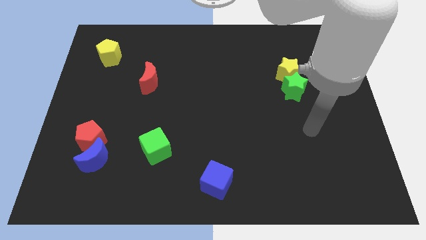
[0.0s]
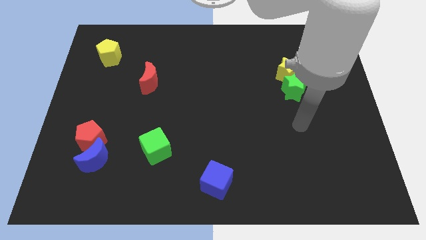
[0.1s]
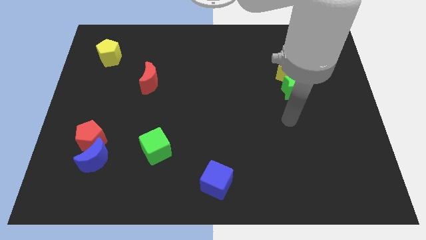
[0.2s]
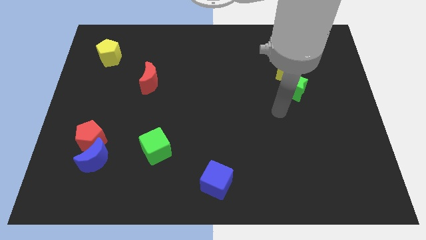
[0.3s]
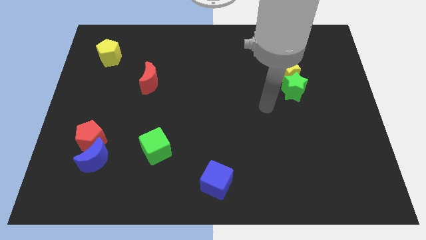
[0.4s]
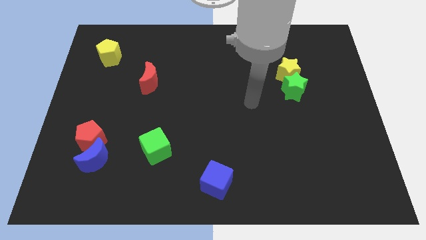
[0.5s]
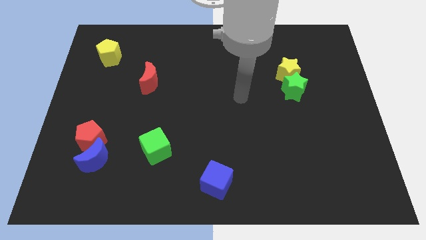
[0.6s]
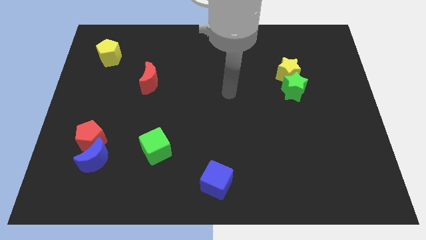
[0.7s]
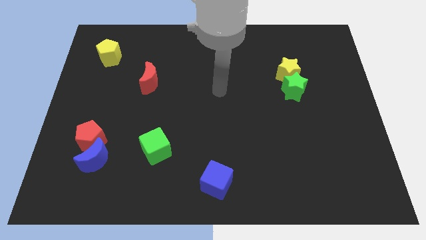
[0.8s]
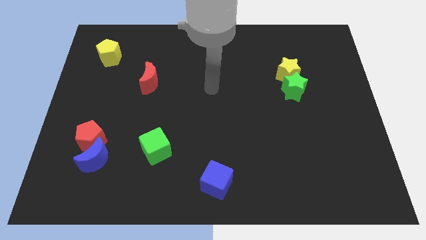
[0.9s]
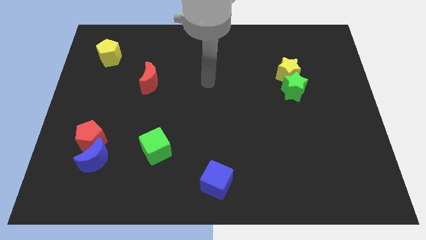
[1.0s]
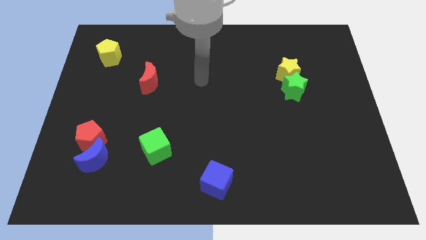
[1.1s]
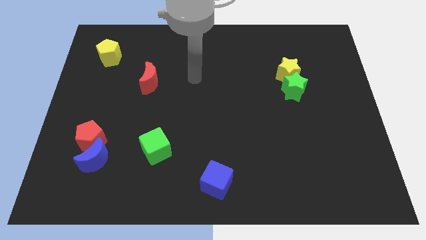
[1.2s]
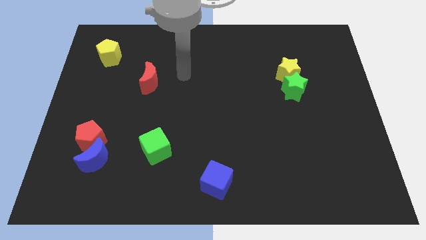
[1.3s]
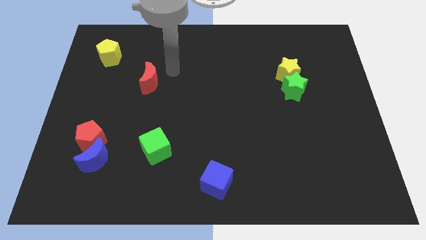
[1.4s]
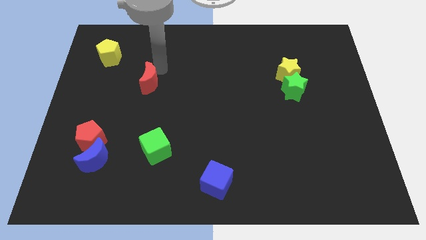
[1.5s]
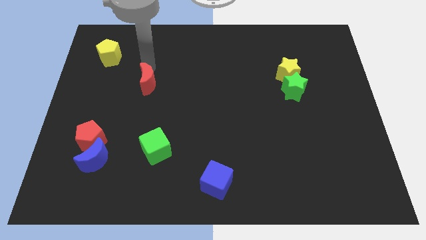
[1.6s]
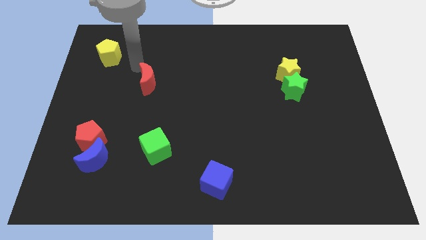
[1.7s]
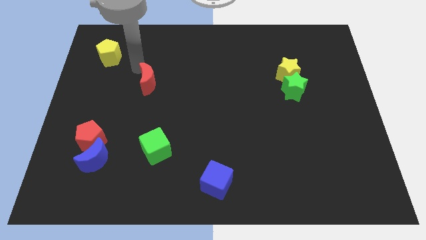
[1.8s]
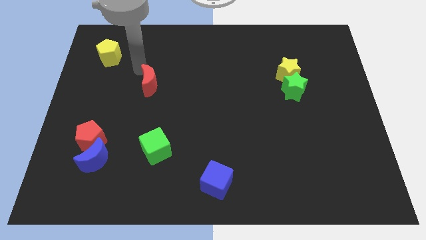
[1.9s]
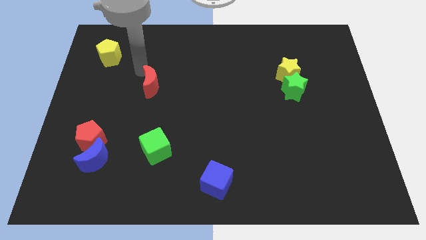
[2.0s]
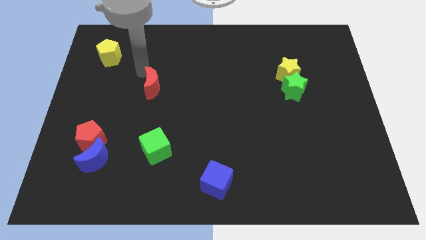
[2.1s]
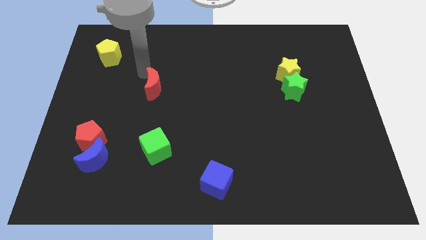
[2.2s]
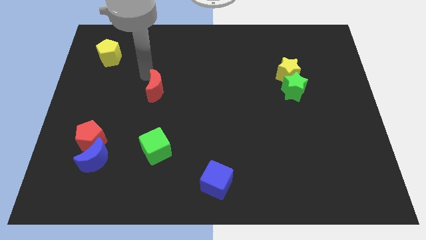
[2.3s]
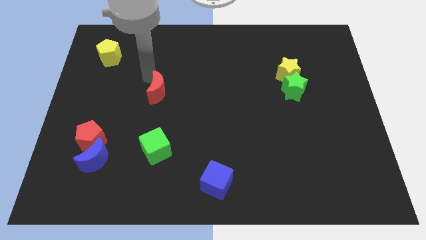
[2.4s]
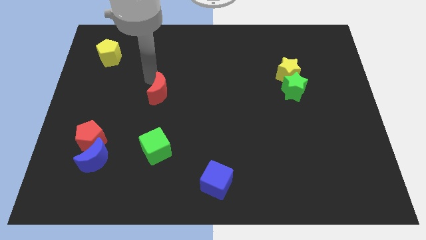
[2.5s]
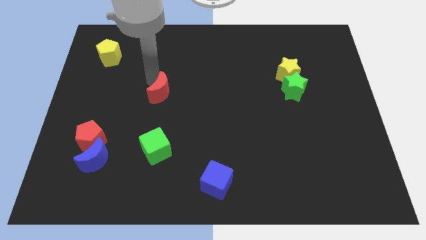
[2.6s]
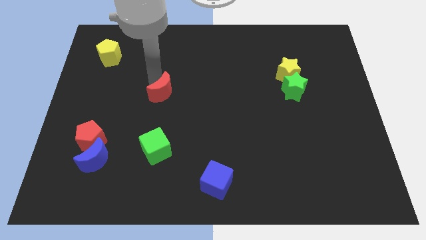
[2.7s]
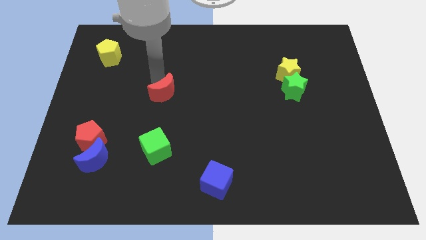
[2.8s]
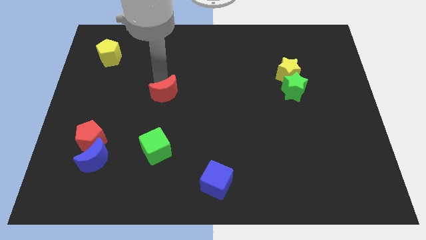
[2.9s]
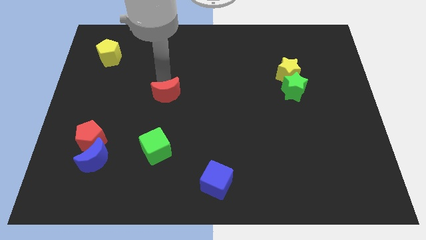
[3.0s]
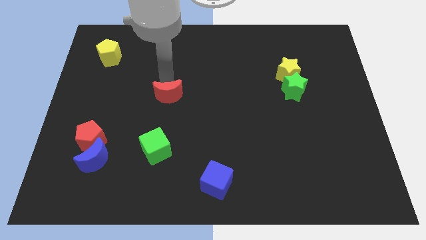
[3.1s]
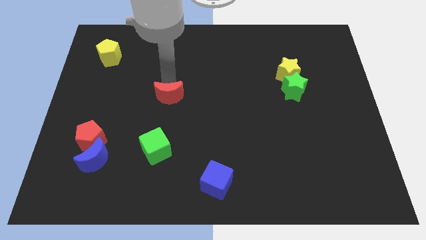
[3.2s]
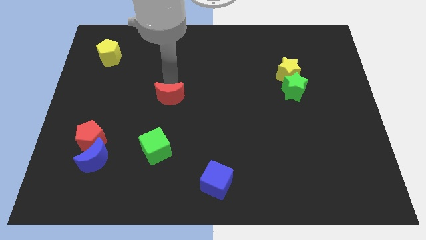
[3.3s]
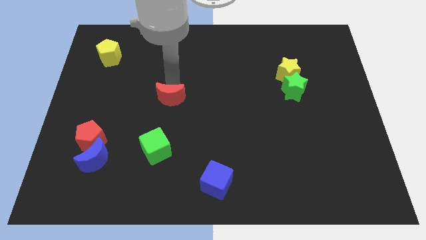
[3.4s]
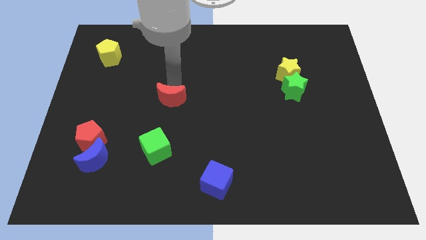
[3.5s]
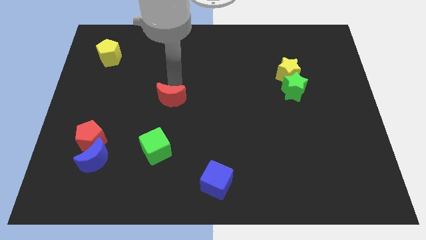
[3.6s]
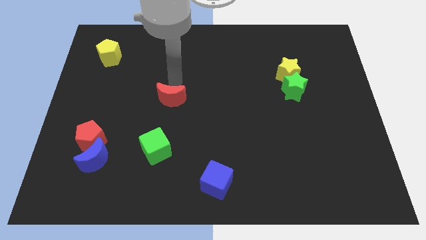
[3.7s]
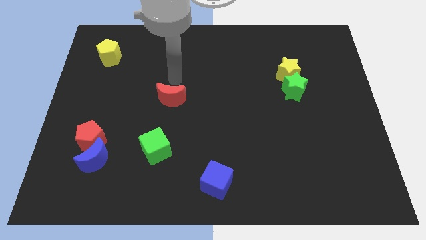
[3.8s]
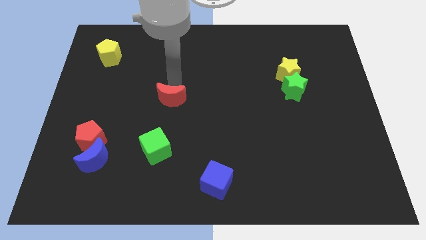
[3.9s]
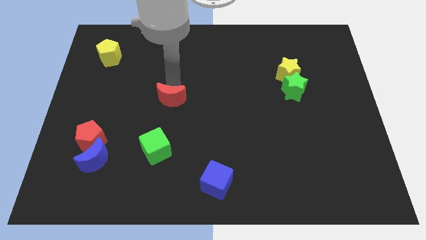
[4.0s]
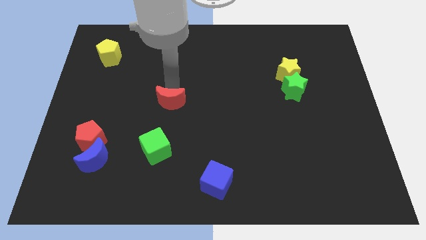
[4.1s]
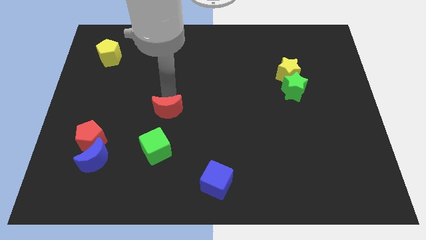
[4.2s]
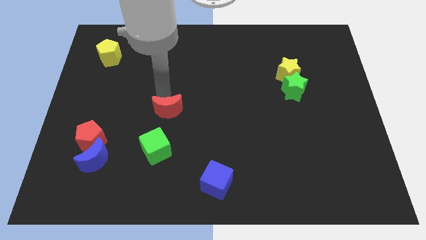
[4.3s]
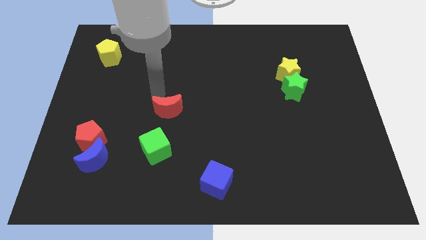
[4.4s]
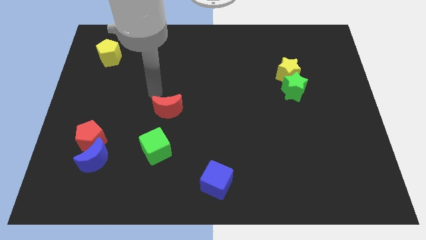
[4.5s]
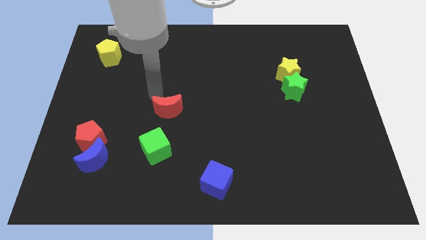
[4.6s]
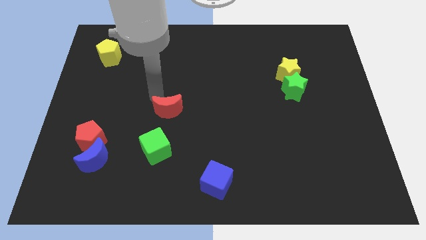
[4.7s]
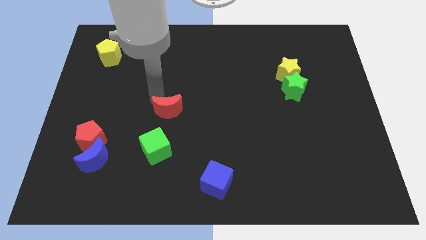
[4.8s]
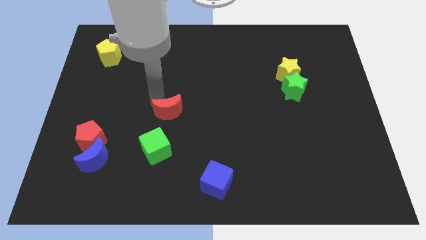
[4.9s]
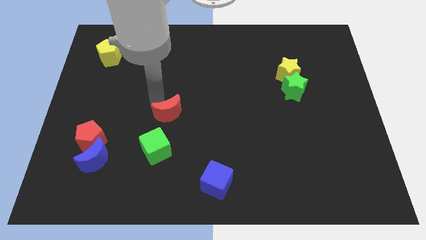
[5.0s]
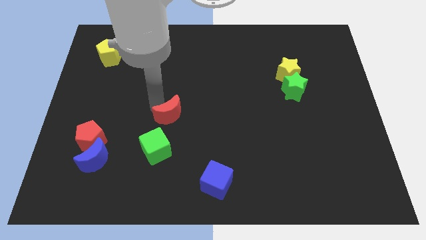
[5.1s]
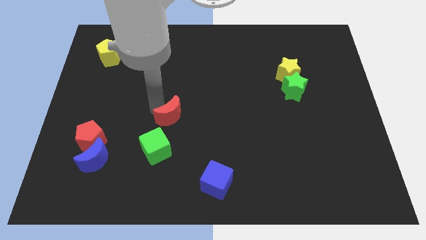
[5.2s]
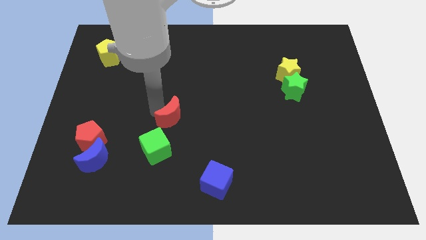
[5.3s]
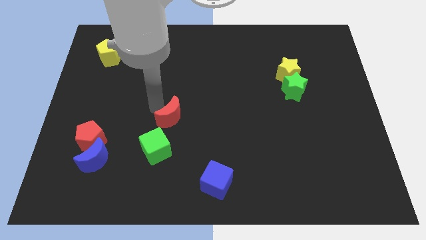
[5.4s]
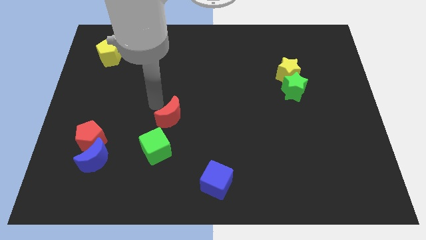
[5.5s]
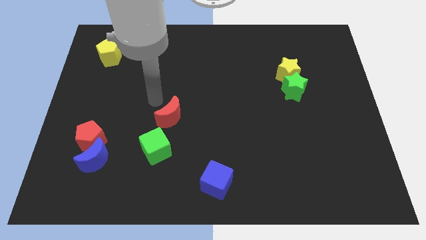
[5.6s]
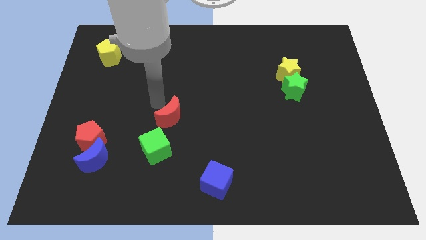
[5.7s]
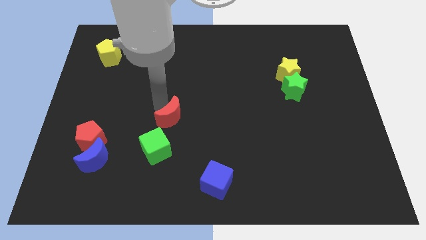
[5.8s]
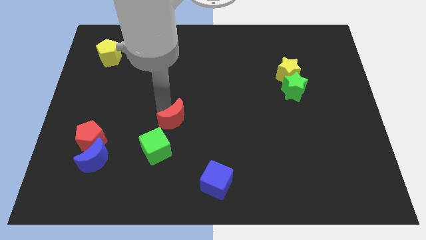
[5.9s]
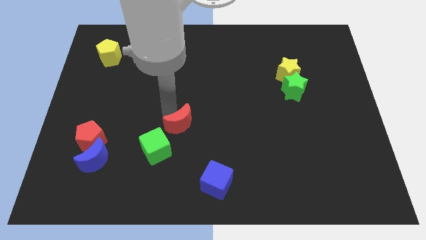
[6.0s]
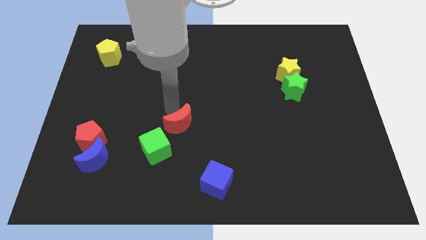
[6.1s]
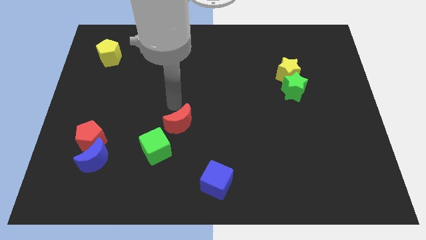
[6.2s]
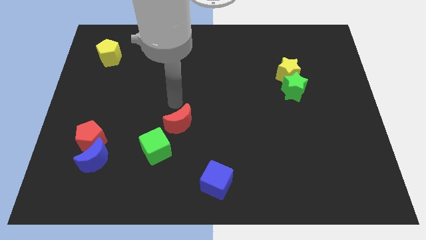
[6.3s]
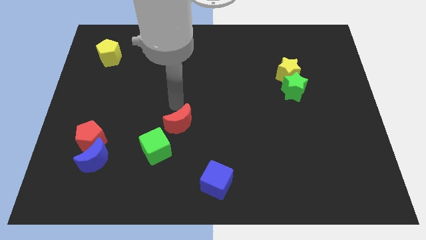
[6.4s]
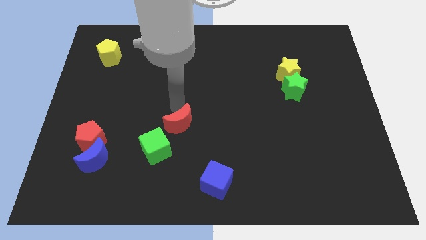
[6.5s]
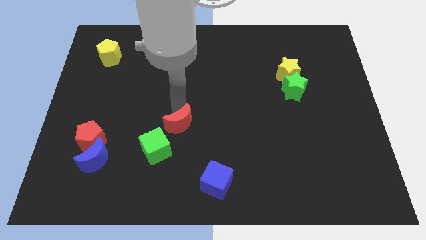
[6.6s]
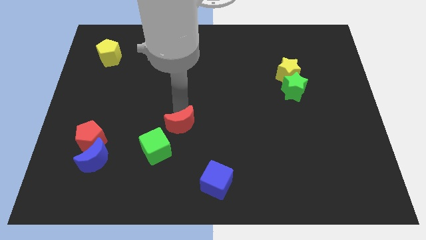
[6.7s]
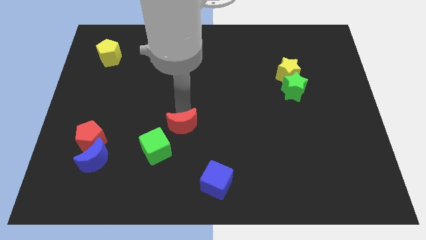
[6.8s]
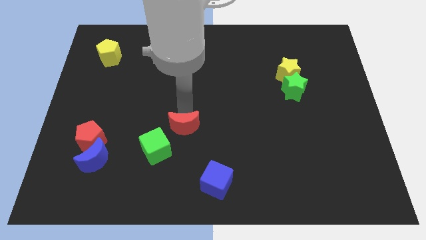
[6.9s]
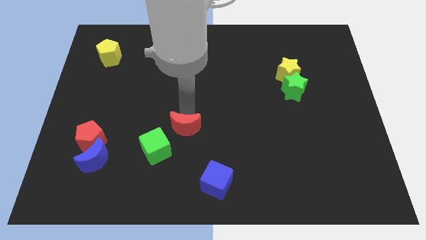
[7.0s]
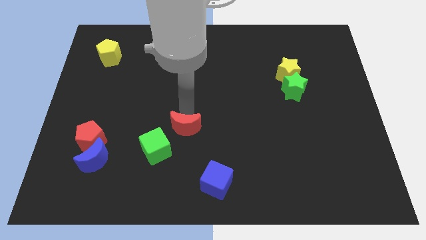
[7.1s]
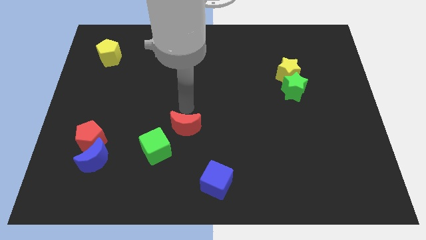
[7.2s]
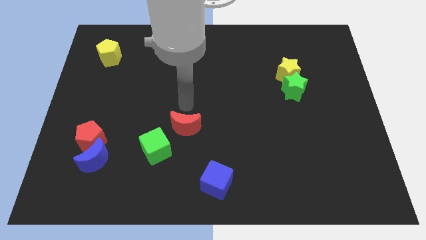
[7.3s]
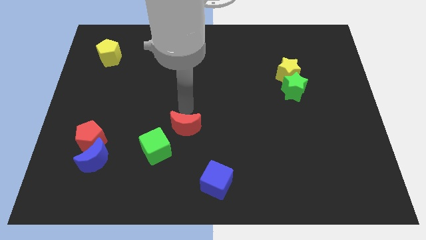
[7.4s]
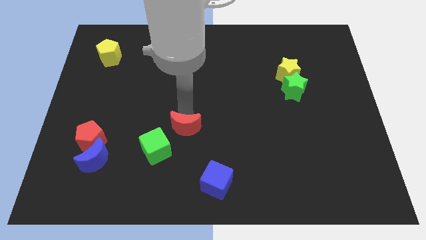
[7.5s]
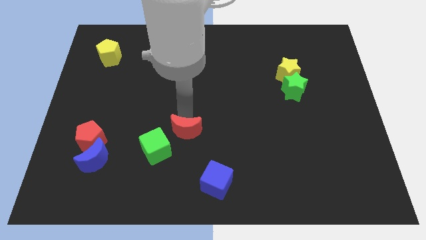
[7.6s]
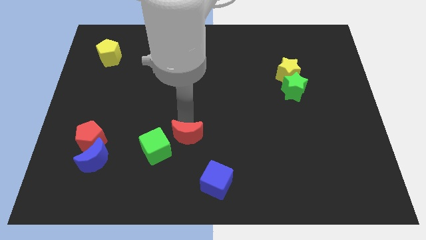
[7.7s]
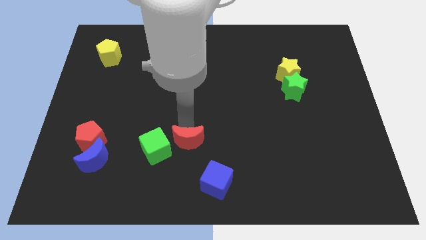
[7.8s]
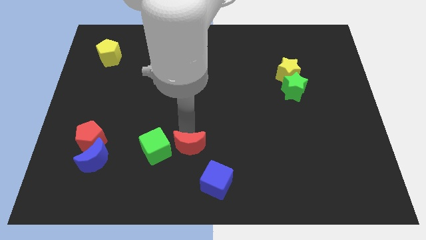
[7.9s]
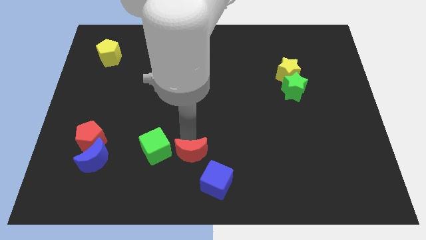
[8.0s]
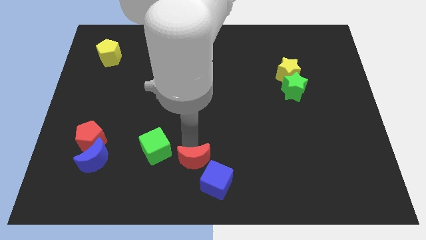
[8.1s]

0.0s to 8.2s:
slide the red moon to the bottom
